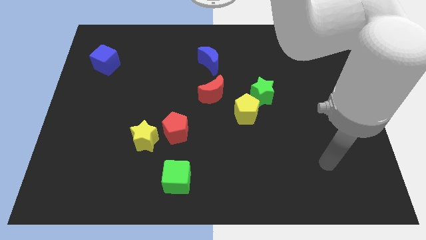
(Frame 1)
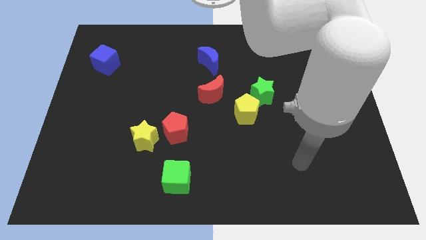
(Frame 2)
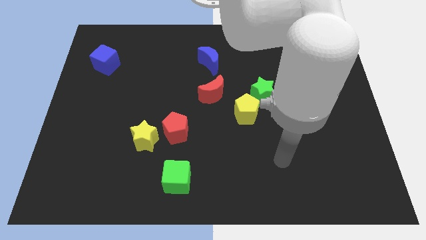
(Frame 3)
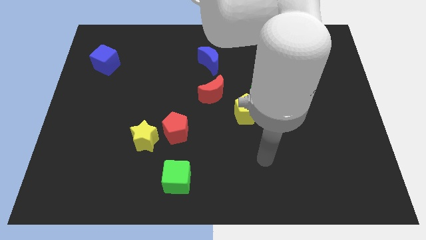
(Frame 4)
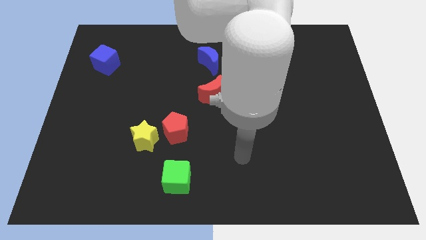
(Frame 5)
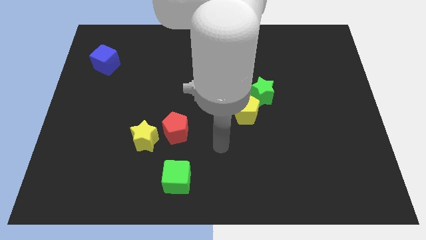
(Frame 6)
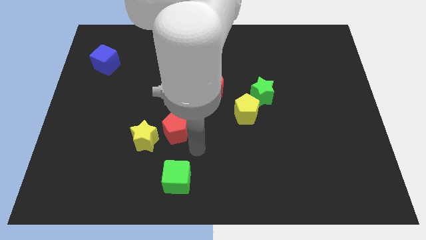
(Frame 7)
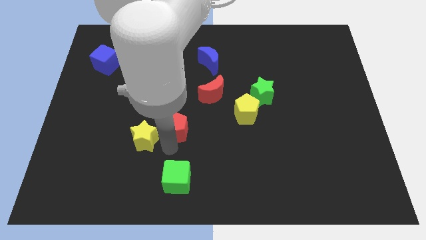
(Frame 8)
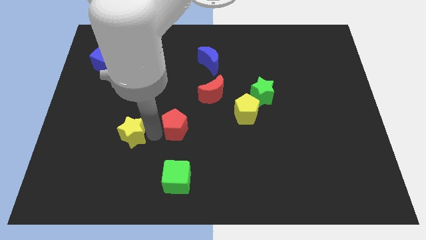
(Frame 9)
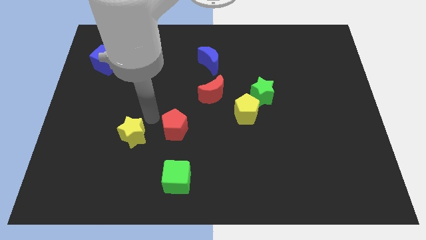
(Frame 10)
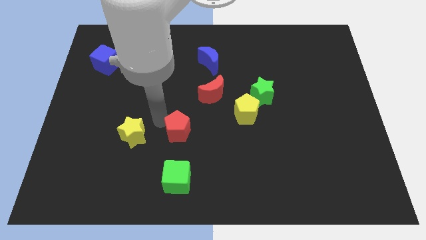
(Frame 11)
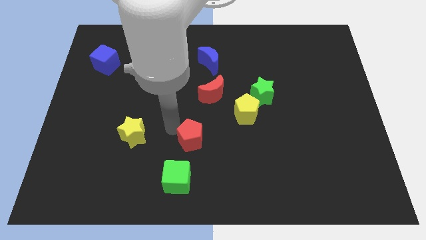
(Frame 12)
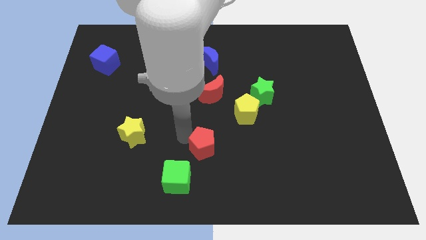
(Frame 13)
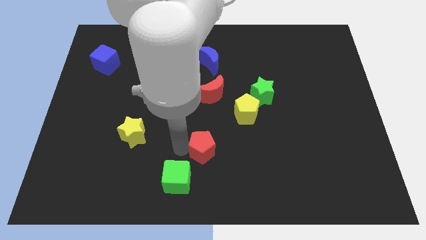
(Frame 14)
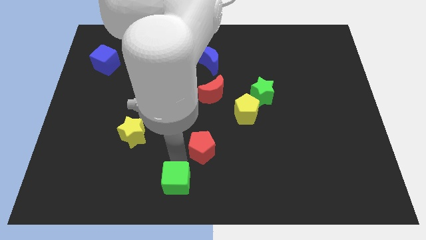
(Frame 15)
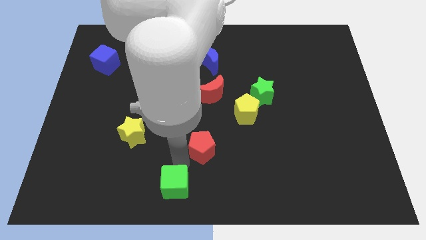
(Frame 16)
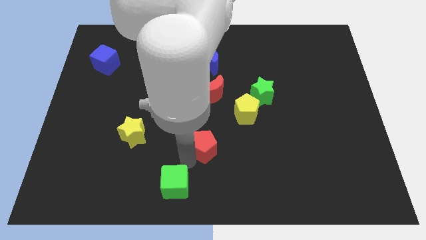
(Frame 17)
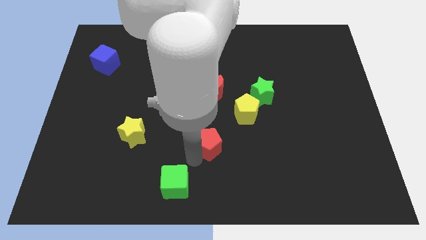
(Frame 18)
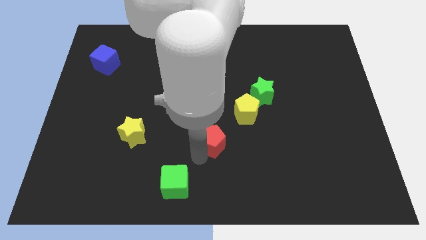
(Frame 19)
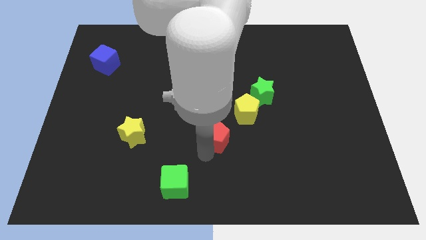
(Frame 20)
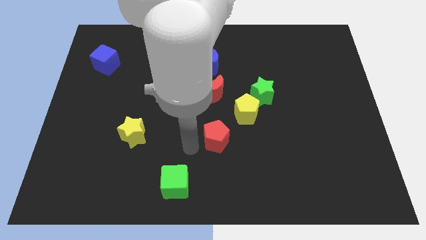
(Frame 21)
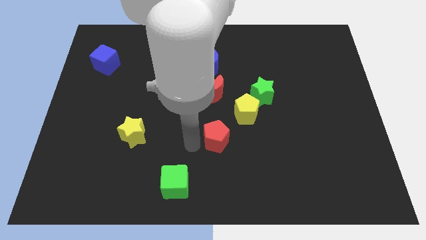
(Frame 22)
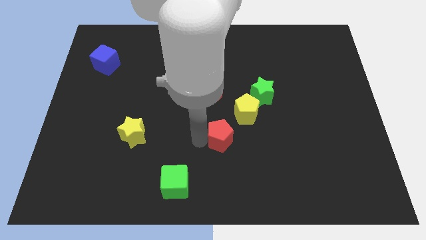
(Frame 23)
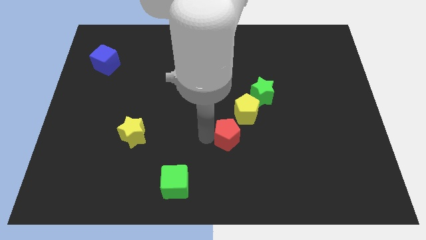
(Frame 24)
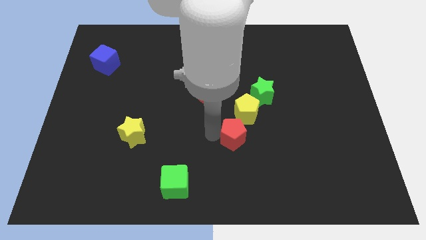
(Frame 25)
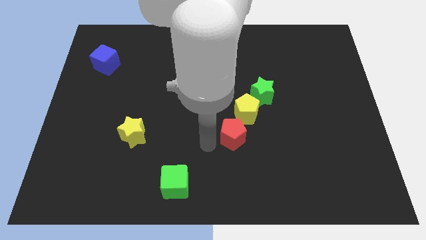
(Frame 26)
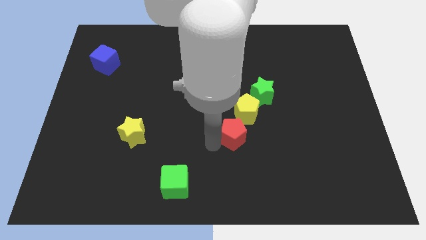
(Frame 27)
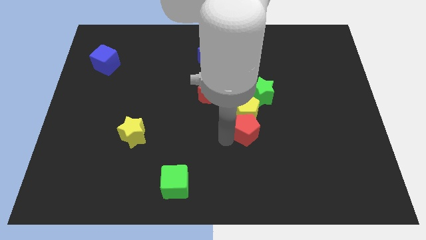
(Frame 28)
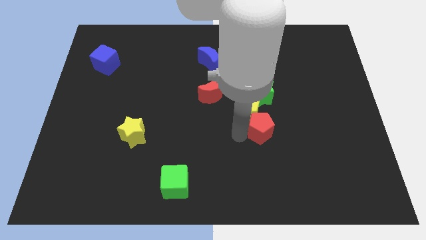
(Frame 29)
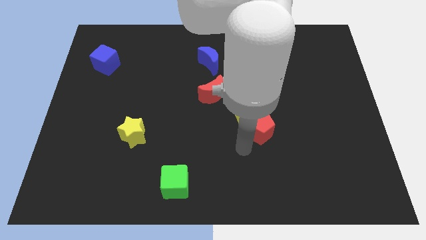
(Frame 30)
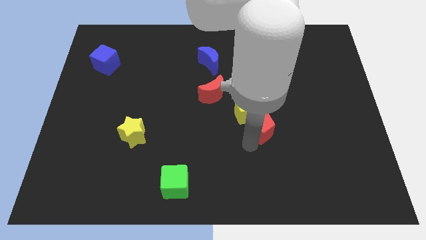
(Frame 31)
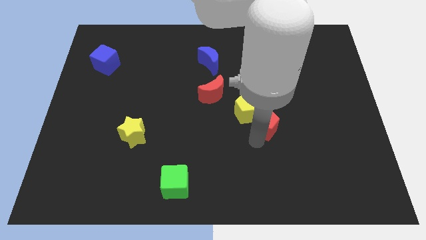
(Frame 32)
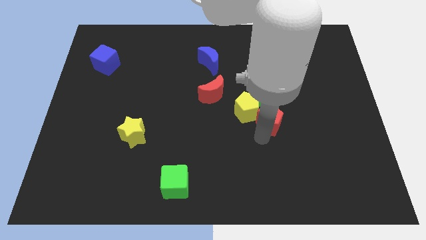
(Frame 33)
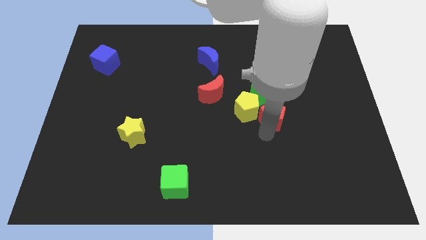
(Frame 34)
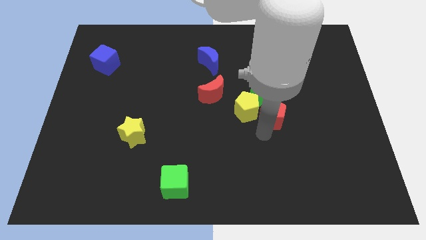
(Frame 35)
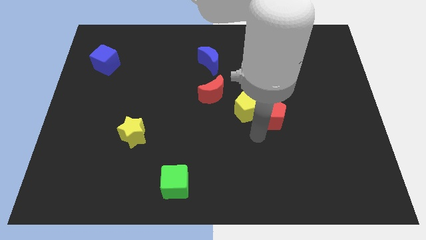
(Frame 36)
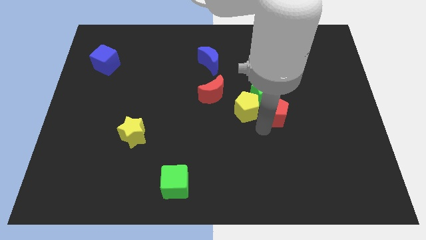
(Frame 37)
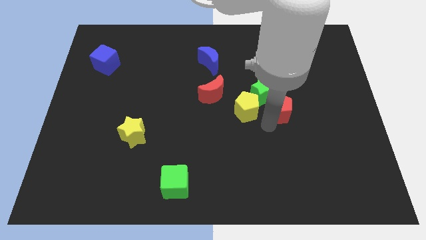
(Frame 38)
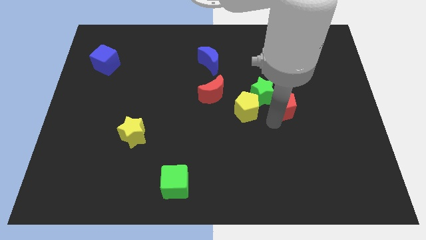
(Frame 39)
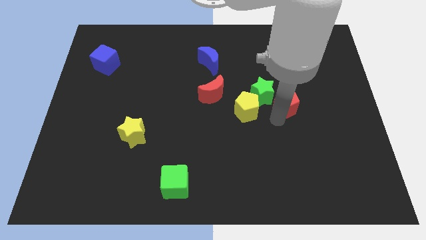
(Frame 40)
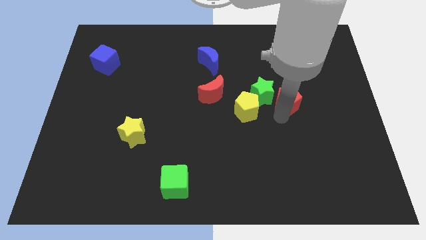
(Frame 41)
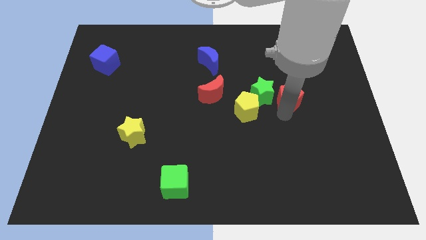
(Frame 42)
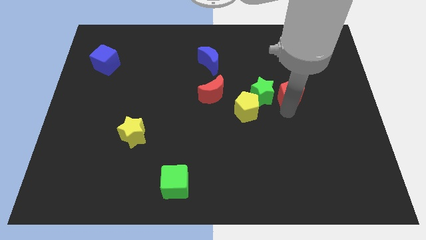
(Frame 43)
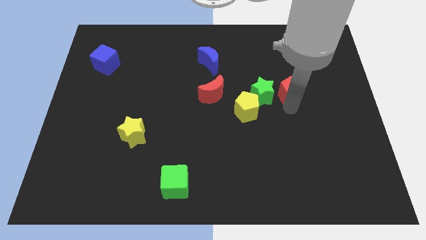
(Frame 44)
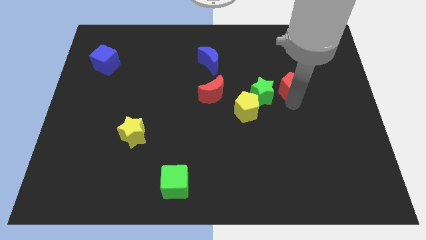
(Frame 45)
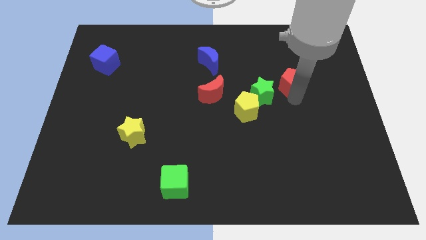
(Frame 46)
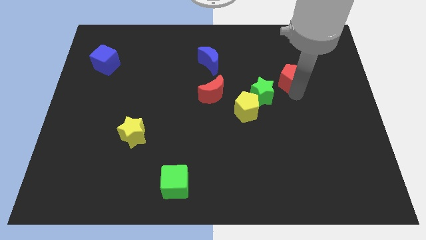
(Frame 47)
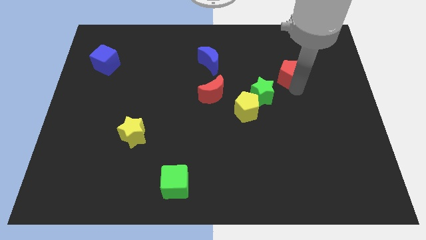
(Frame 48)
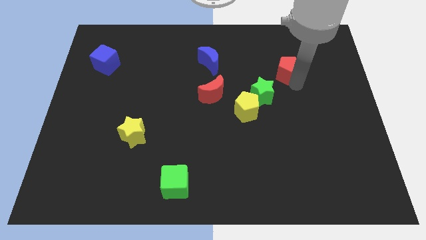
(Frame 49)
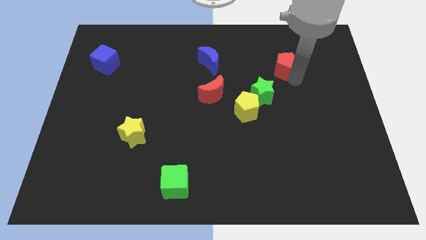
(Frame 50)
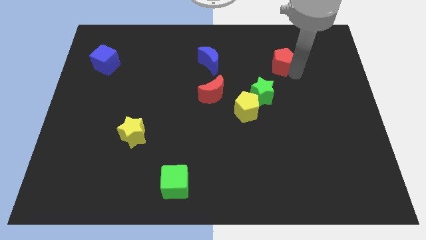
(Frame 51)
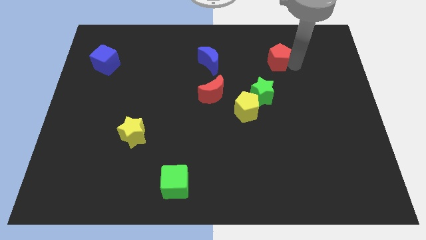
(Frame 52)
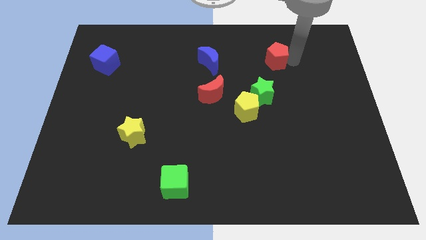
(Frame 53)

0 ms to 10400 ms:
move the red pentagon to the top of the green star

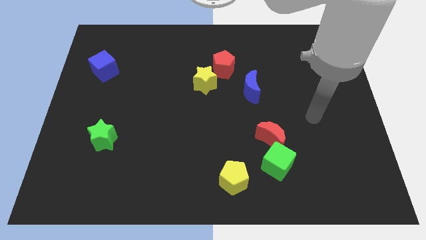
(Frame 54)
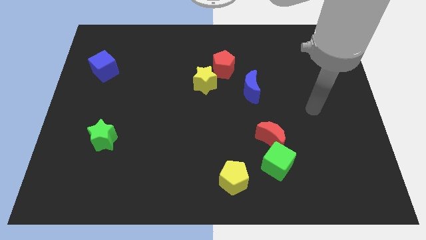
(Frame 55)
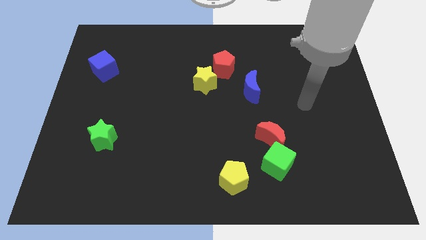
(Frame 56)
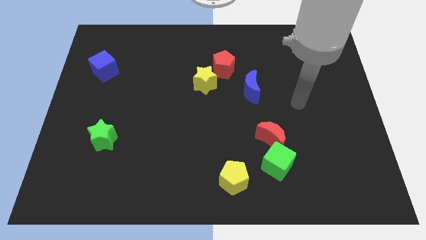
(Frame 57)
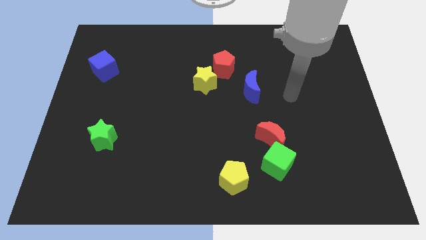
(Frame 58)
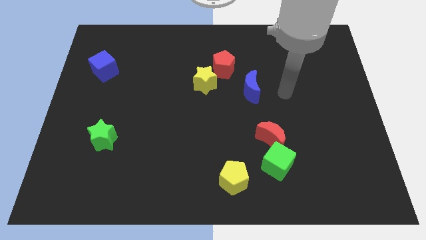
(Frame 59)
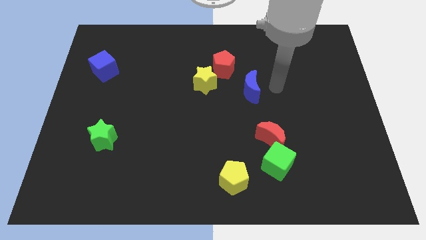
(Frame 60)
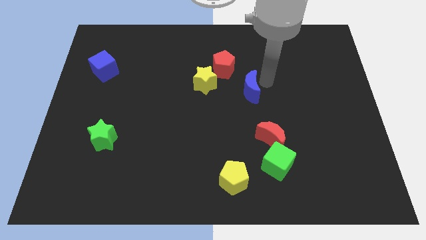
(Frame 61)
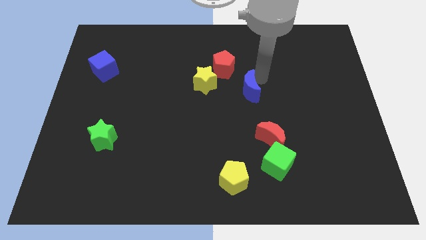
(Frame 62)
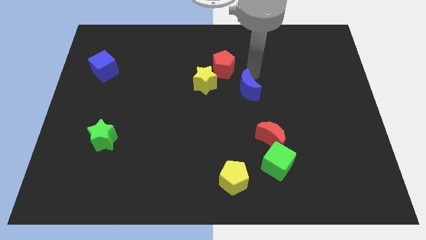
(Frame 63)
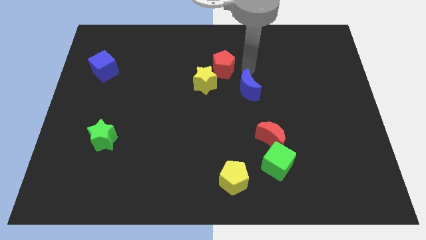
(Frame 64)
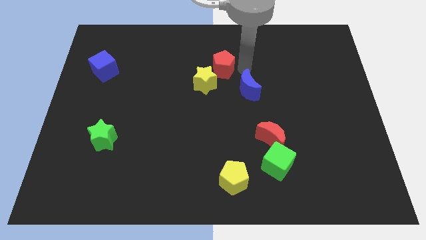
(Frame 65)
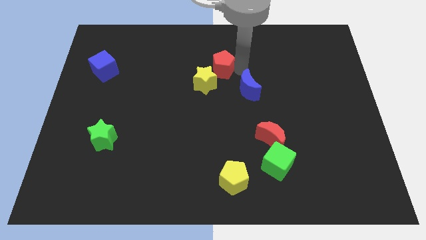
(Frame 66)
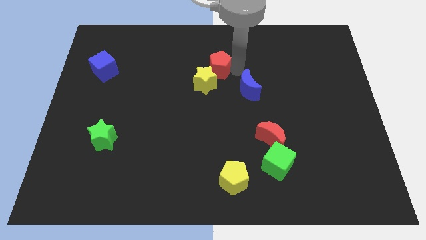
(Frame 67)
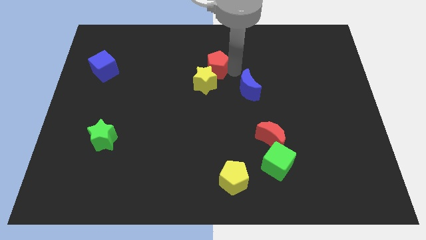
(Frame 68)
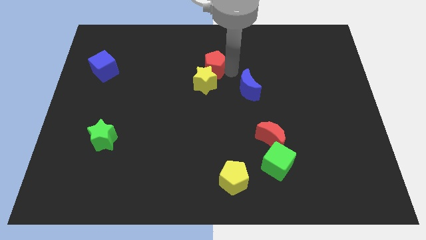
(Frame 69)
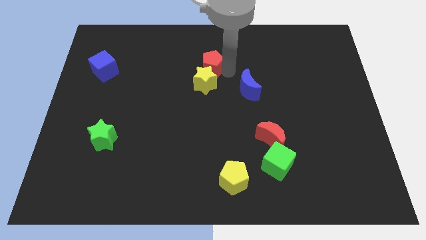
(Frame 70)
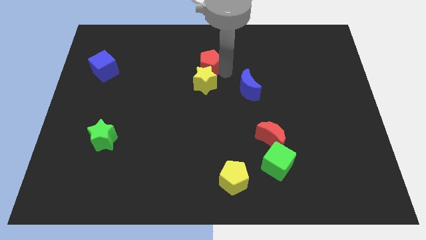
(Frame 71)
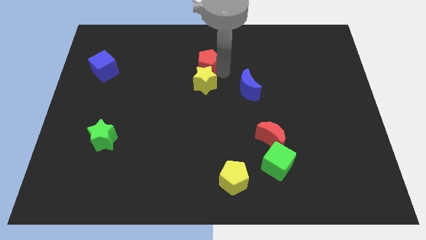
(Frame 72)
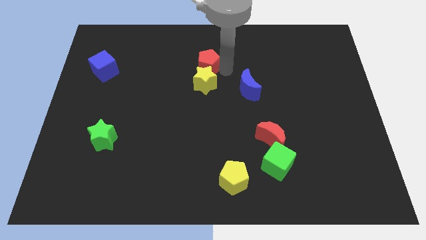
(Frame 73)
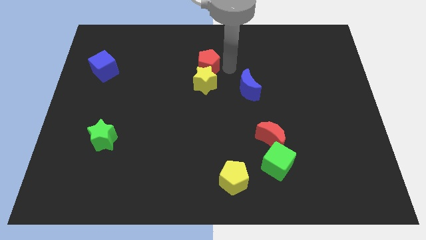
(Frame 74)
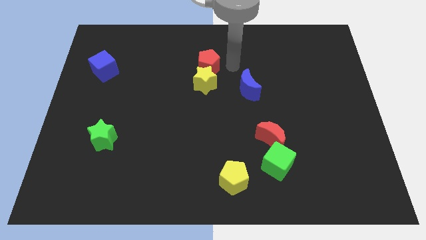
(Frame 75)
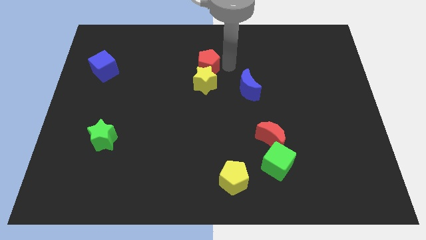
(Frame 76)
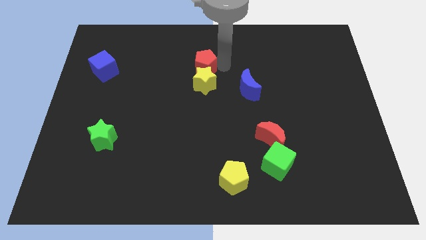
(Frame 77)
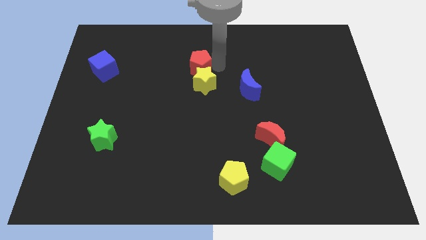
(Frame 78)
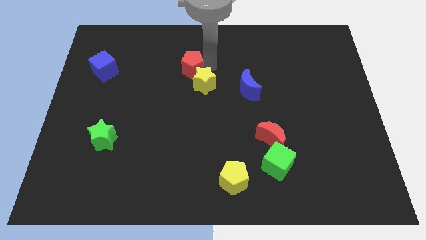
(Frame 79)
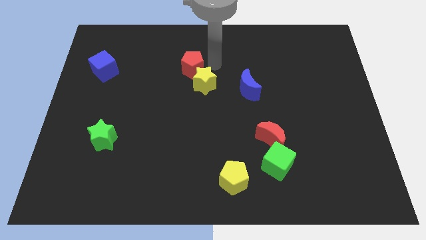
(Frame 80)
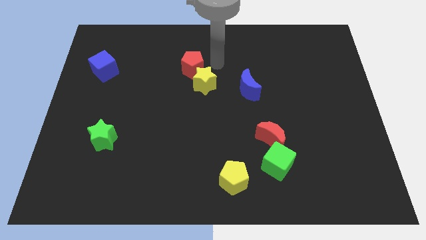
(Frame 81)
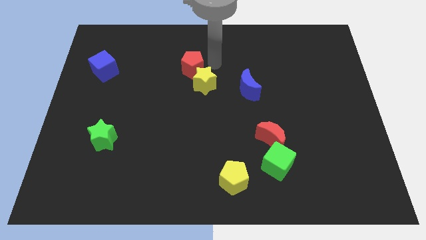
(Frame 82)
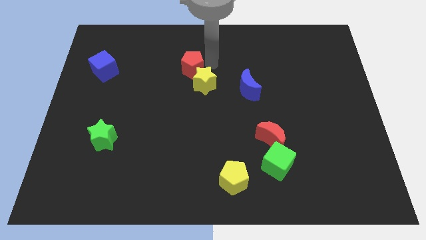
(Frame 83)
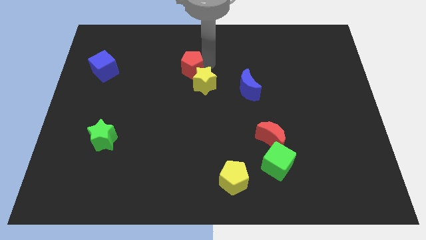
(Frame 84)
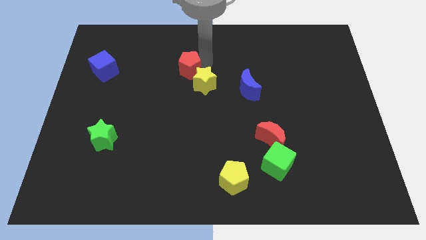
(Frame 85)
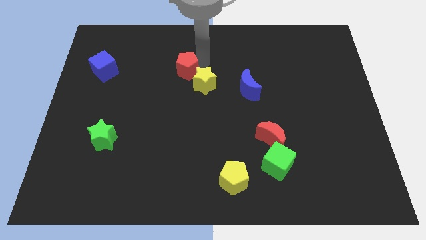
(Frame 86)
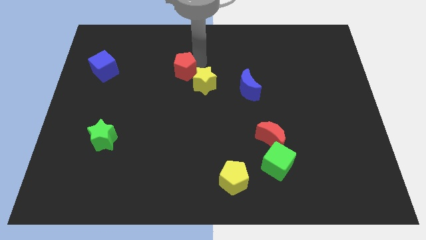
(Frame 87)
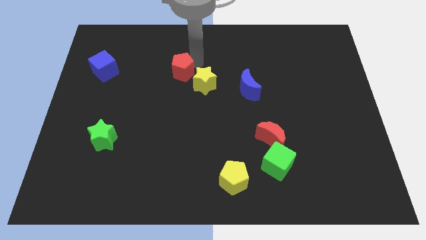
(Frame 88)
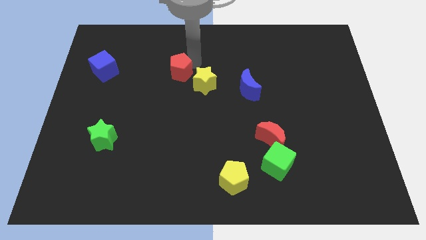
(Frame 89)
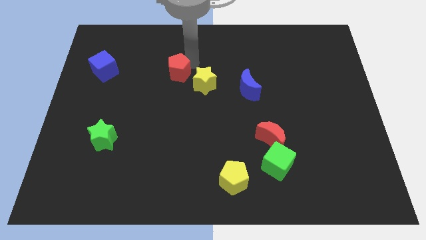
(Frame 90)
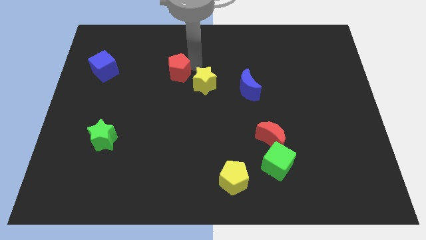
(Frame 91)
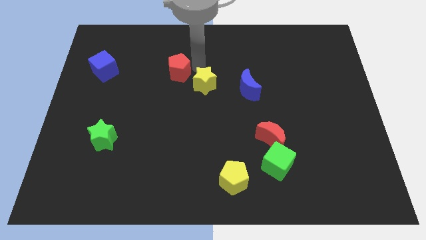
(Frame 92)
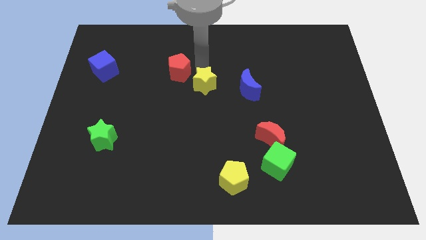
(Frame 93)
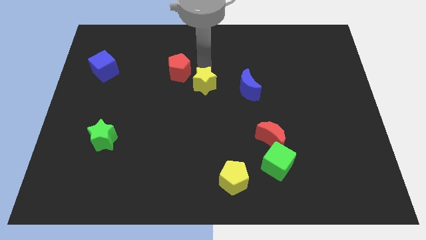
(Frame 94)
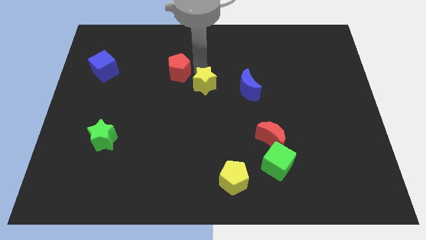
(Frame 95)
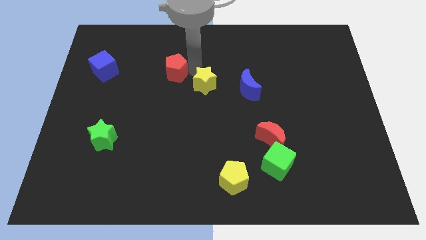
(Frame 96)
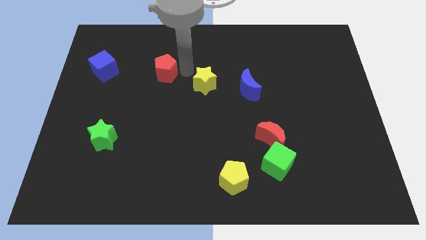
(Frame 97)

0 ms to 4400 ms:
put the red pentagon to the right side of the blue cube
